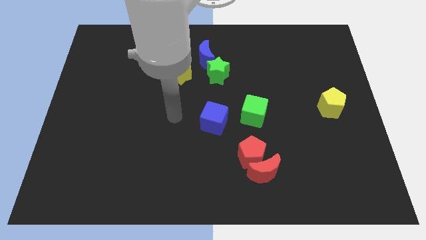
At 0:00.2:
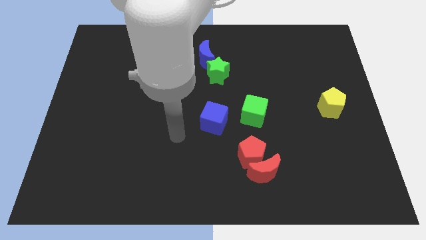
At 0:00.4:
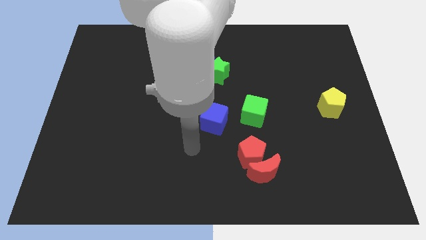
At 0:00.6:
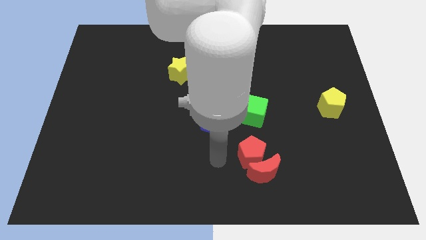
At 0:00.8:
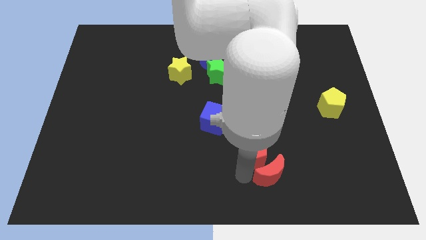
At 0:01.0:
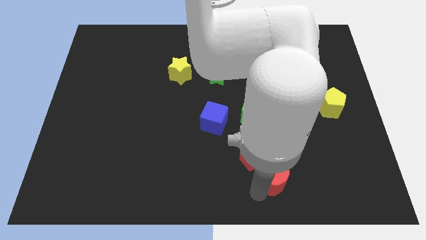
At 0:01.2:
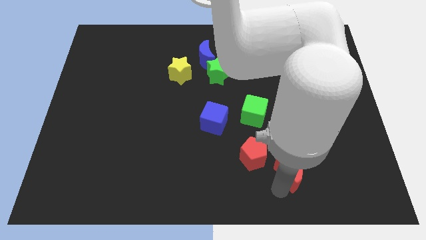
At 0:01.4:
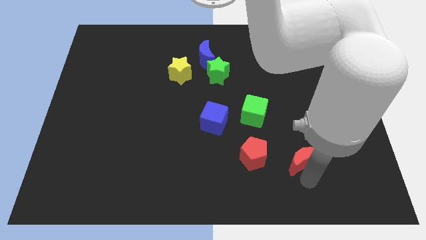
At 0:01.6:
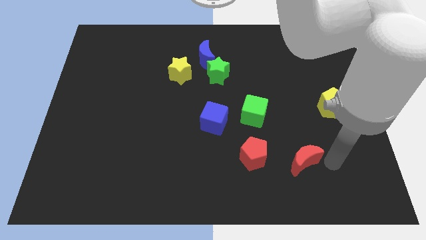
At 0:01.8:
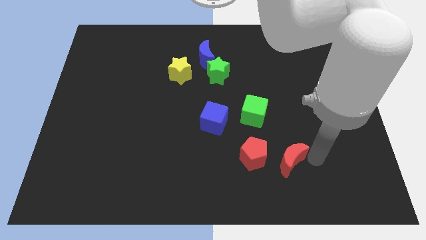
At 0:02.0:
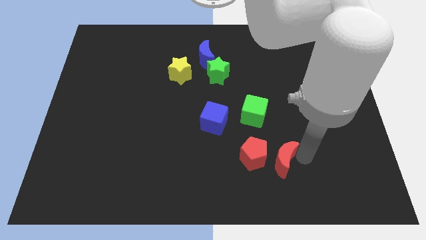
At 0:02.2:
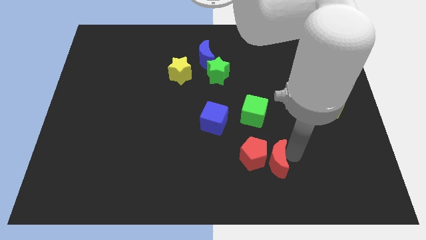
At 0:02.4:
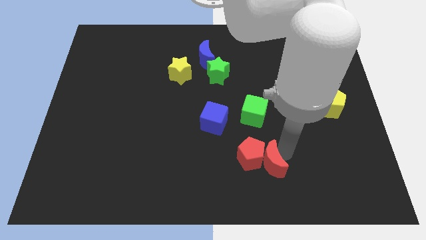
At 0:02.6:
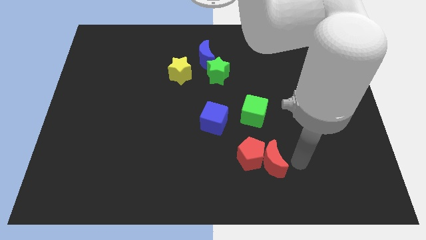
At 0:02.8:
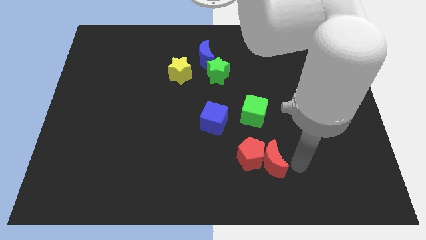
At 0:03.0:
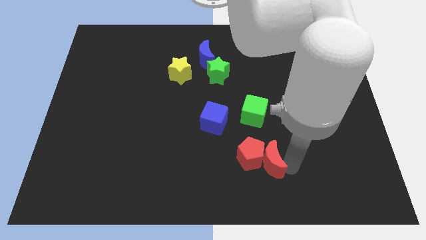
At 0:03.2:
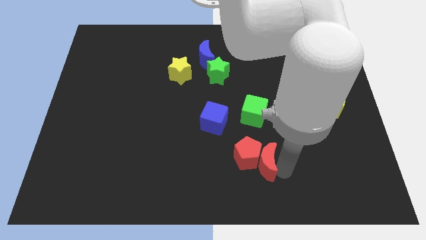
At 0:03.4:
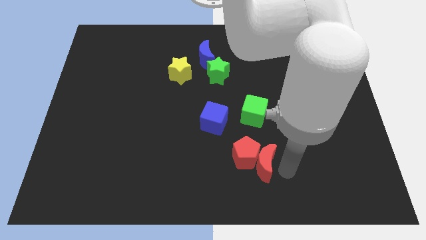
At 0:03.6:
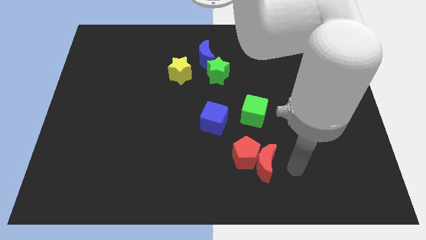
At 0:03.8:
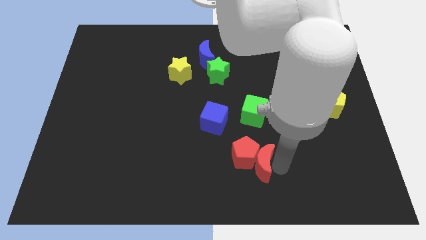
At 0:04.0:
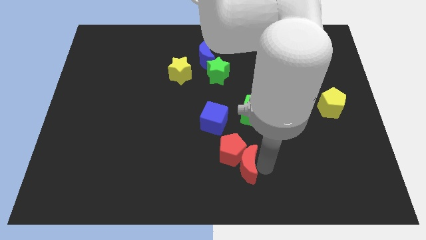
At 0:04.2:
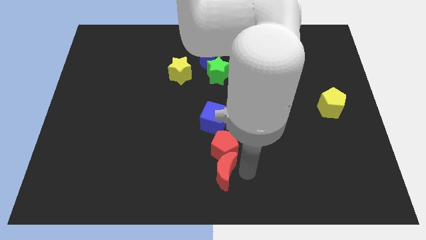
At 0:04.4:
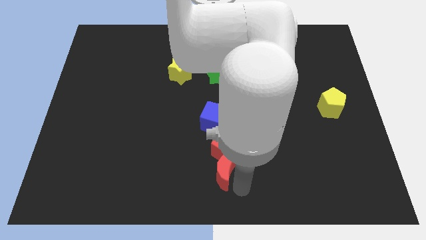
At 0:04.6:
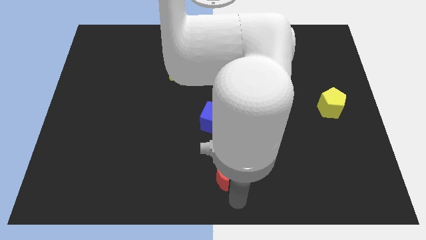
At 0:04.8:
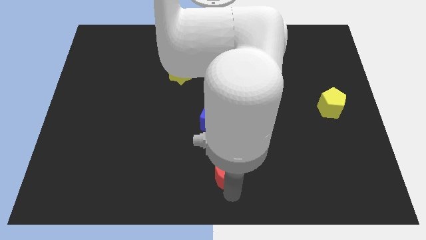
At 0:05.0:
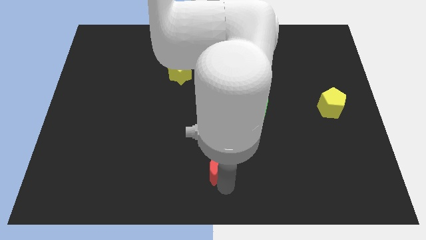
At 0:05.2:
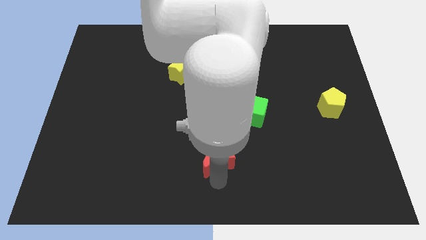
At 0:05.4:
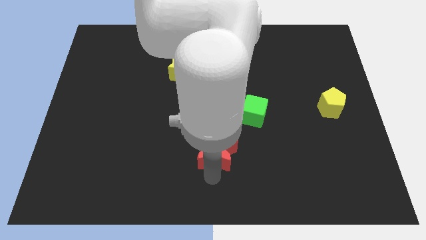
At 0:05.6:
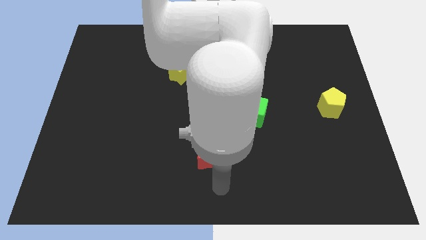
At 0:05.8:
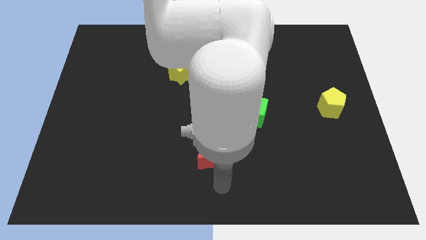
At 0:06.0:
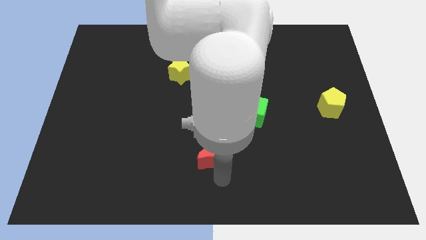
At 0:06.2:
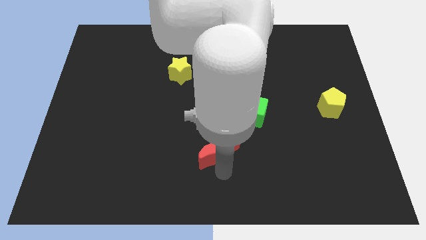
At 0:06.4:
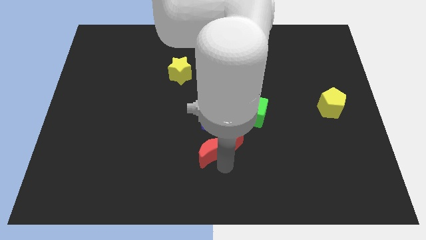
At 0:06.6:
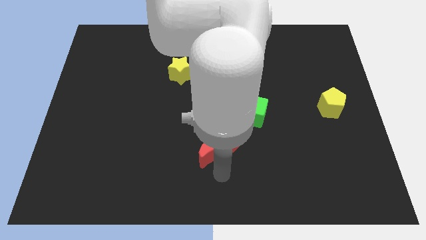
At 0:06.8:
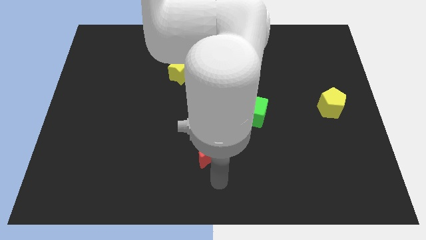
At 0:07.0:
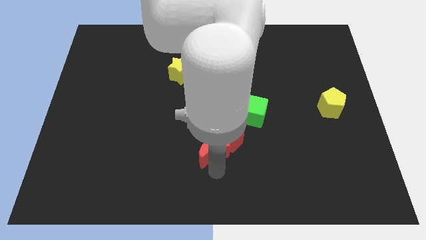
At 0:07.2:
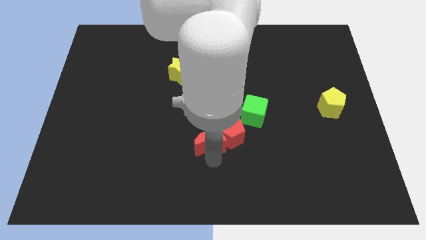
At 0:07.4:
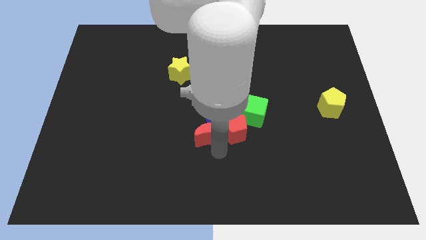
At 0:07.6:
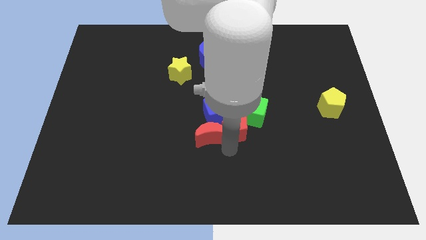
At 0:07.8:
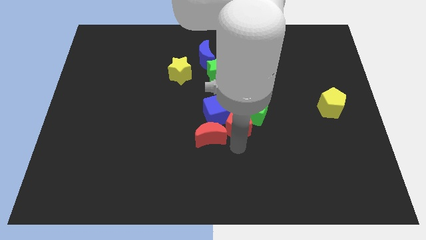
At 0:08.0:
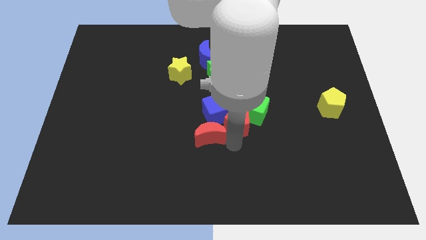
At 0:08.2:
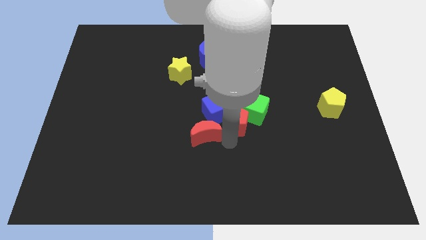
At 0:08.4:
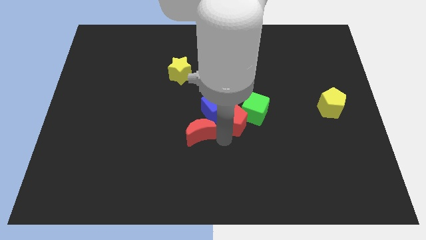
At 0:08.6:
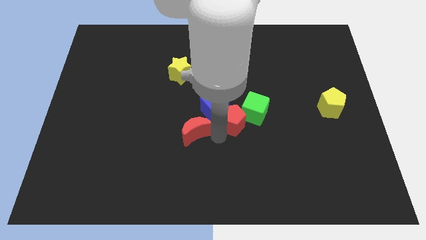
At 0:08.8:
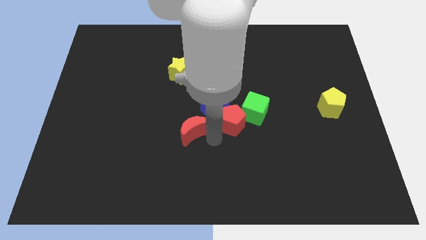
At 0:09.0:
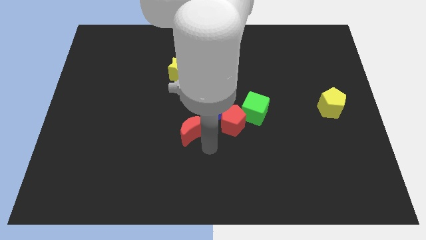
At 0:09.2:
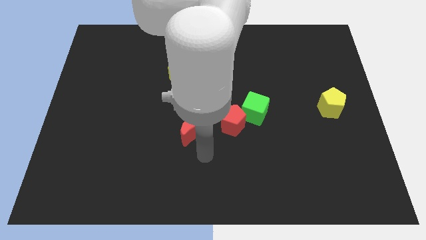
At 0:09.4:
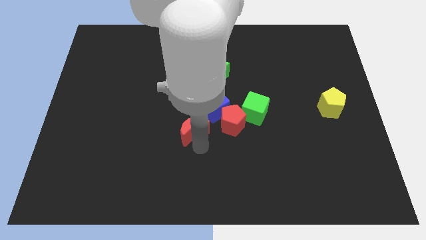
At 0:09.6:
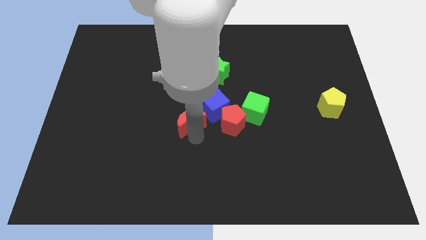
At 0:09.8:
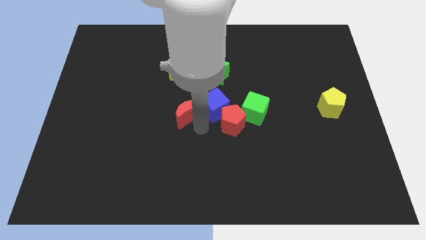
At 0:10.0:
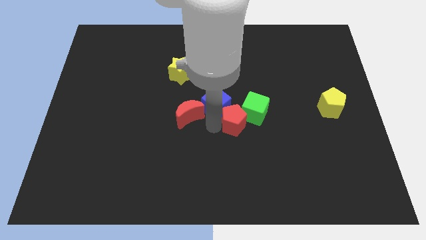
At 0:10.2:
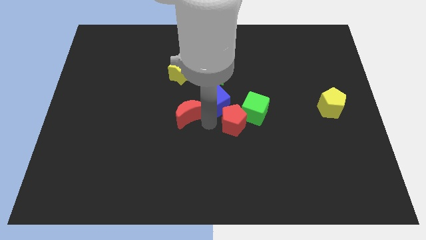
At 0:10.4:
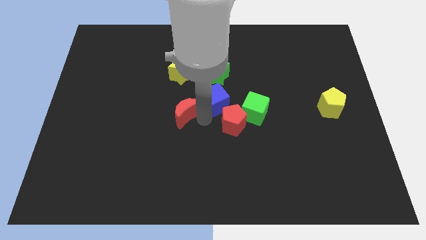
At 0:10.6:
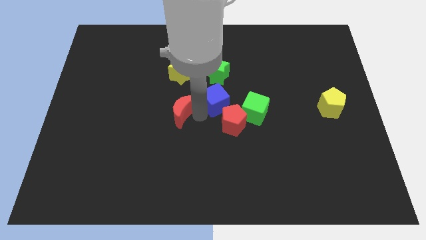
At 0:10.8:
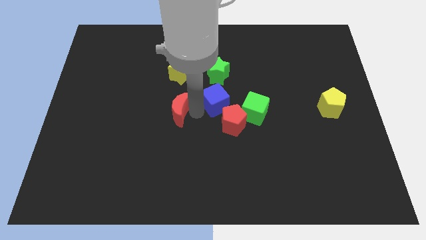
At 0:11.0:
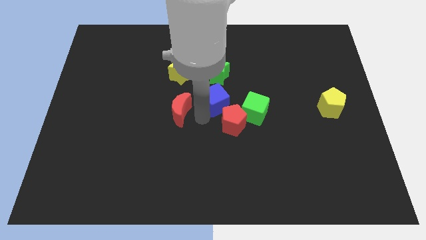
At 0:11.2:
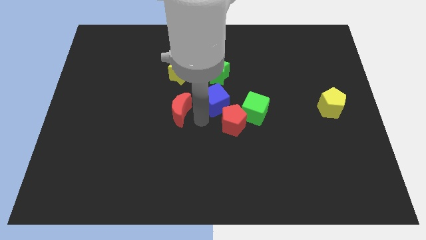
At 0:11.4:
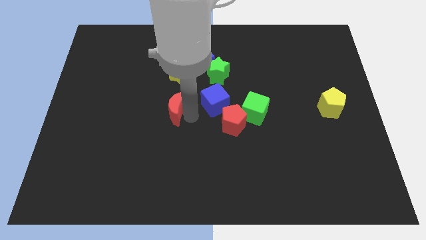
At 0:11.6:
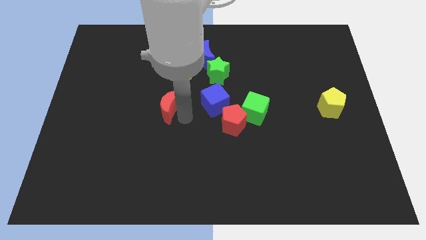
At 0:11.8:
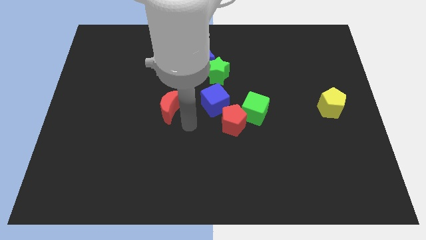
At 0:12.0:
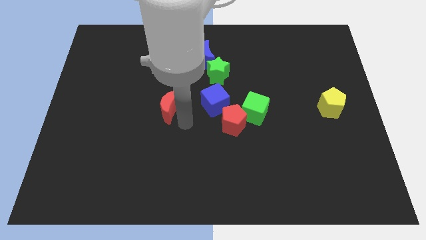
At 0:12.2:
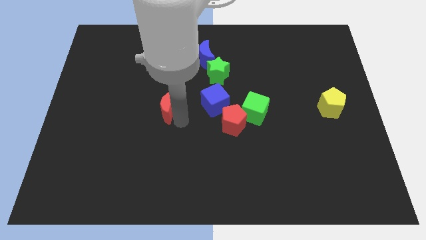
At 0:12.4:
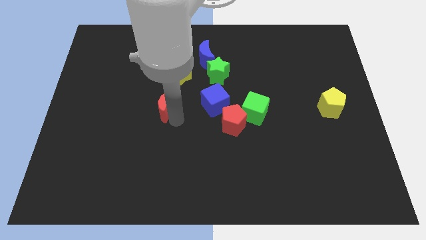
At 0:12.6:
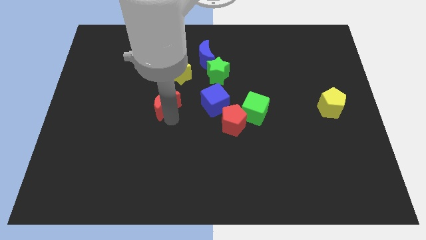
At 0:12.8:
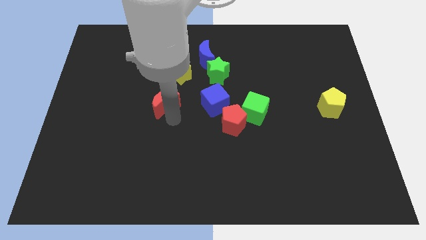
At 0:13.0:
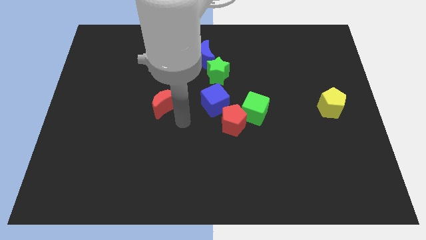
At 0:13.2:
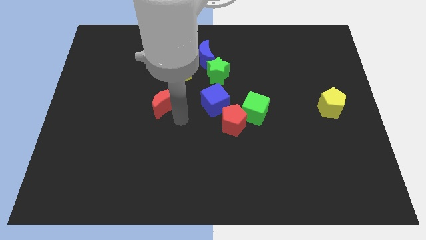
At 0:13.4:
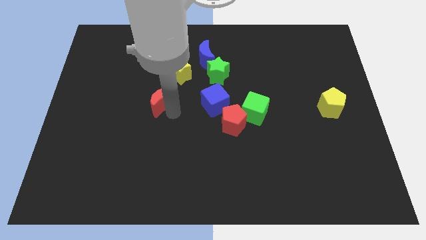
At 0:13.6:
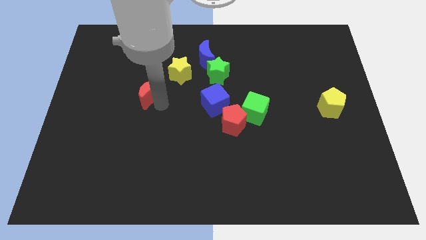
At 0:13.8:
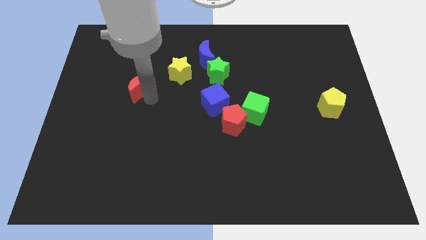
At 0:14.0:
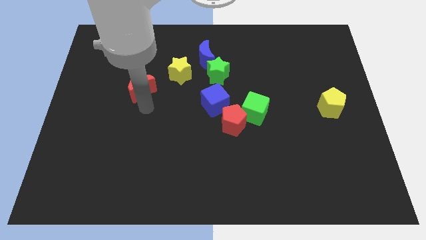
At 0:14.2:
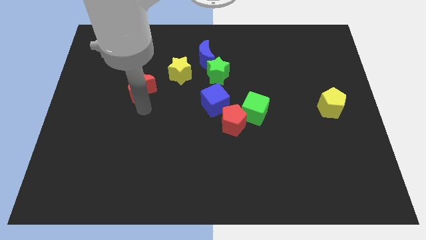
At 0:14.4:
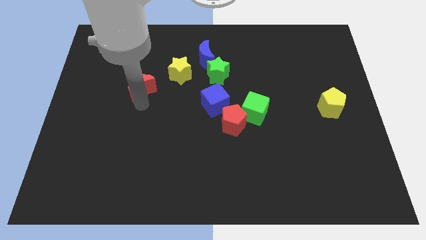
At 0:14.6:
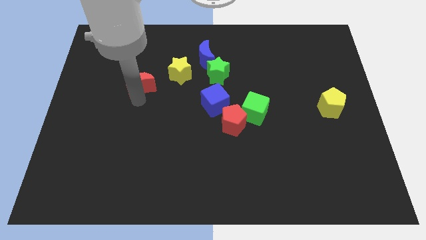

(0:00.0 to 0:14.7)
put the red moon to the left side of the yellow star

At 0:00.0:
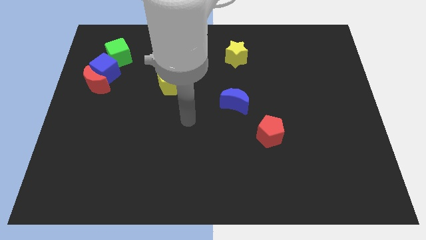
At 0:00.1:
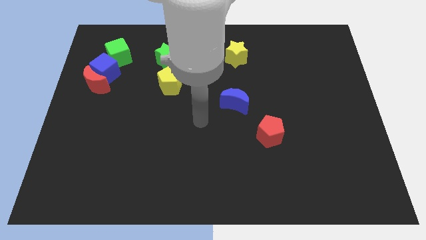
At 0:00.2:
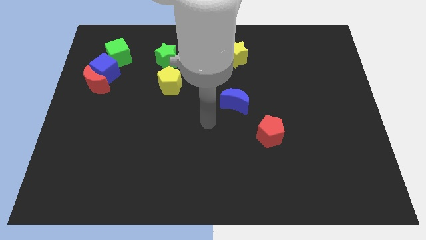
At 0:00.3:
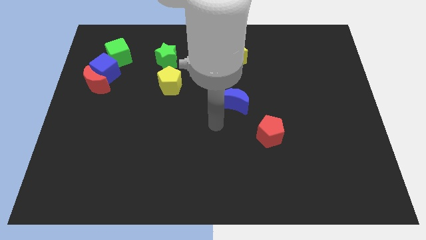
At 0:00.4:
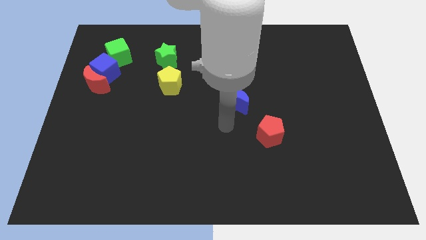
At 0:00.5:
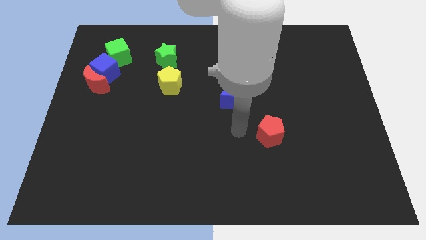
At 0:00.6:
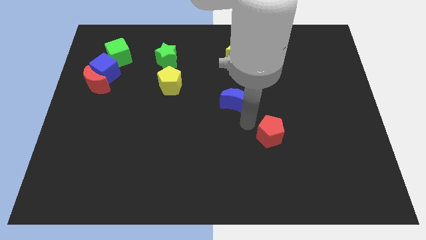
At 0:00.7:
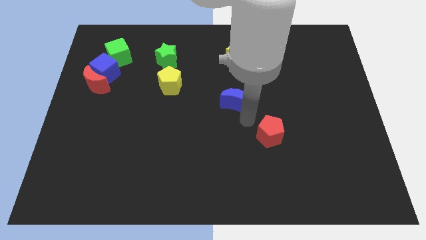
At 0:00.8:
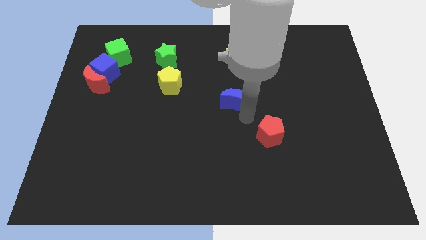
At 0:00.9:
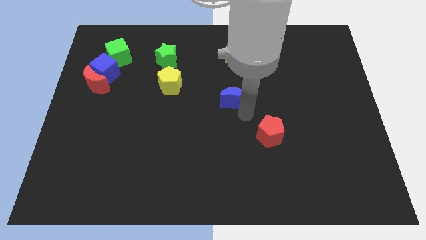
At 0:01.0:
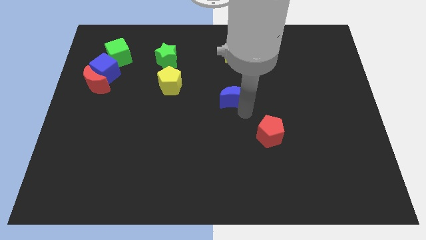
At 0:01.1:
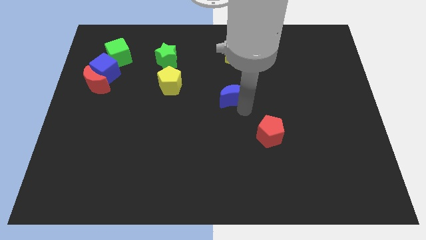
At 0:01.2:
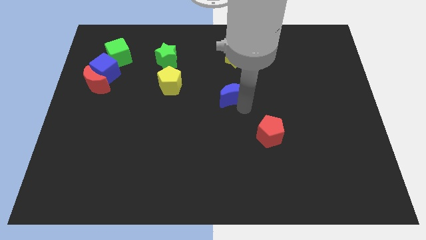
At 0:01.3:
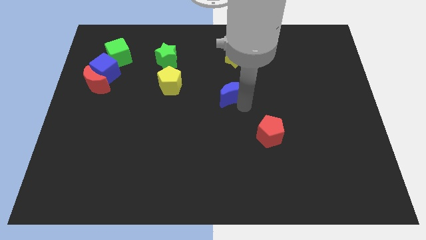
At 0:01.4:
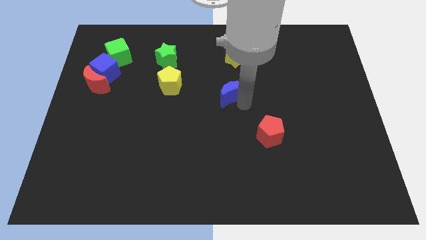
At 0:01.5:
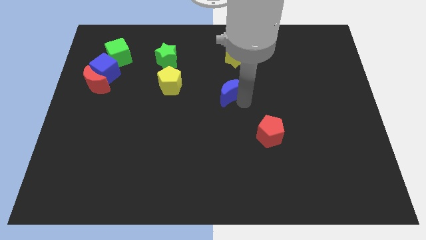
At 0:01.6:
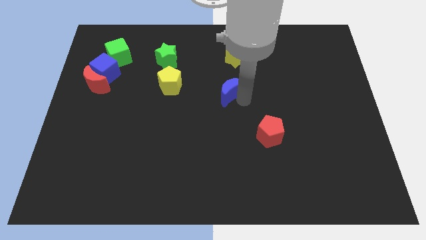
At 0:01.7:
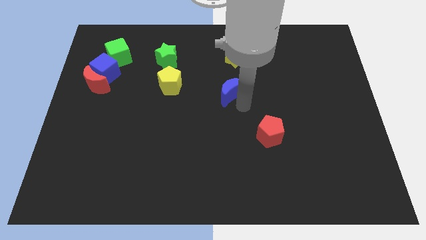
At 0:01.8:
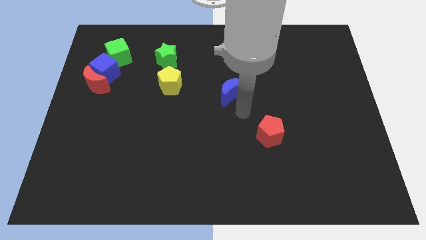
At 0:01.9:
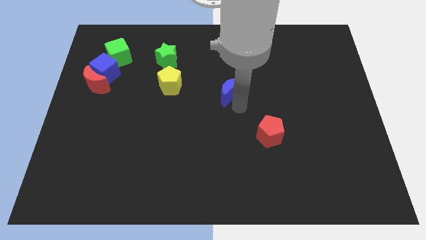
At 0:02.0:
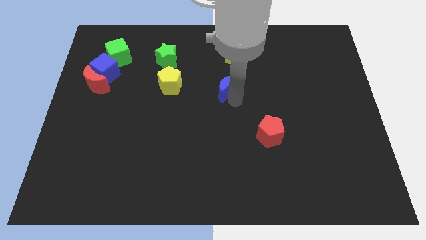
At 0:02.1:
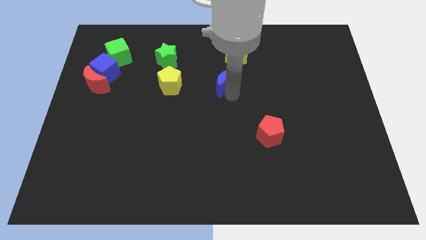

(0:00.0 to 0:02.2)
slide the blue moon to the bottom left of the yellow star
